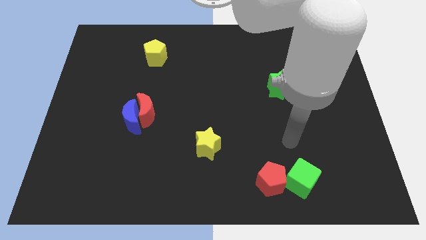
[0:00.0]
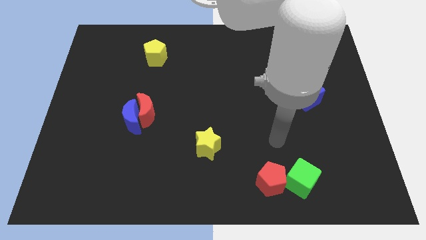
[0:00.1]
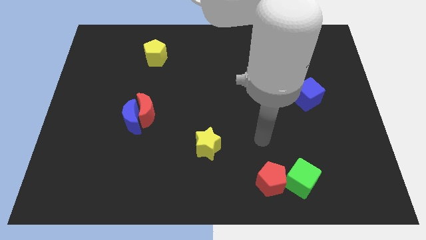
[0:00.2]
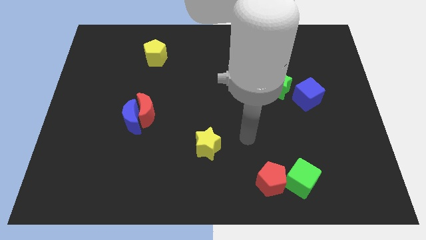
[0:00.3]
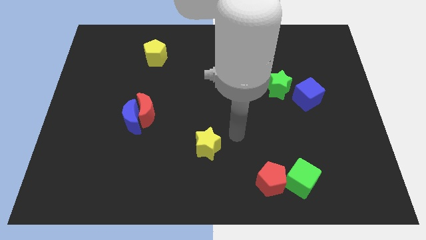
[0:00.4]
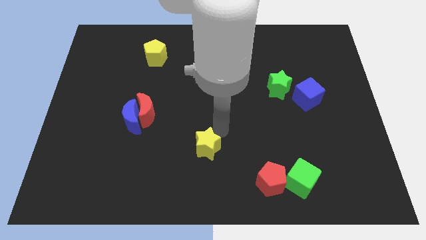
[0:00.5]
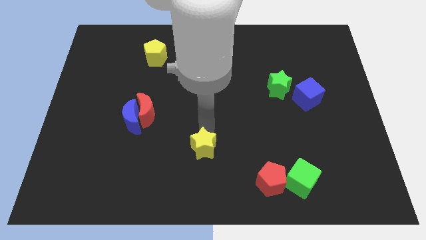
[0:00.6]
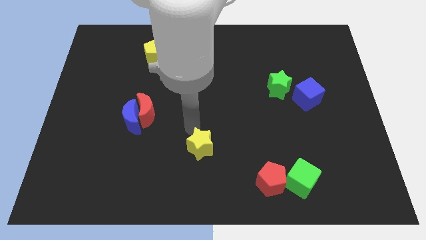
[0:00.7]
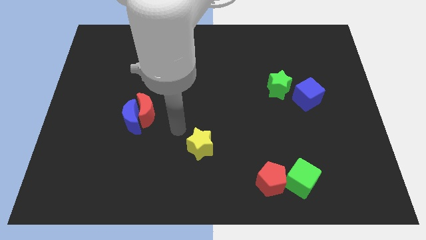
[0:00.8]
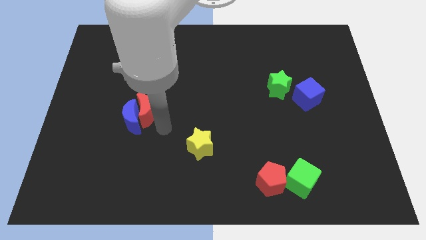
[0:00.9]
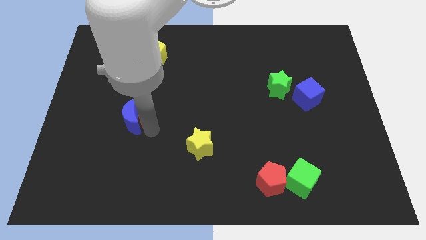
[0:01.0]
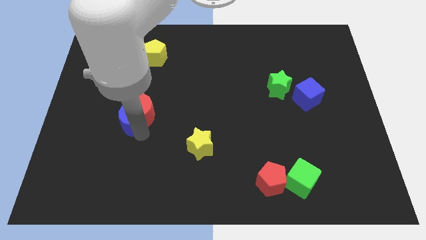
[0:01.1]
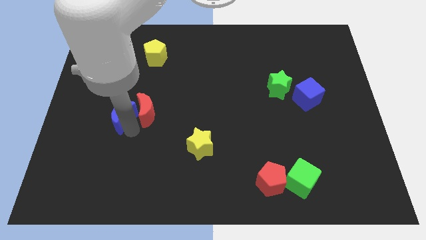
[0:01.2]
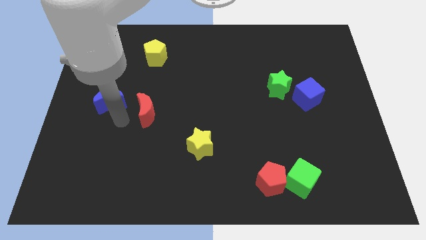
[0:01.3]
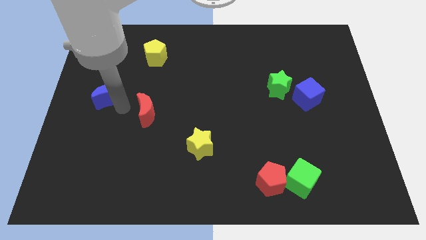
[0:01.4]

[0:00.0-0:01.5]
move the red moon away from the blue moon

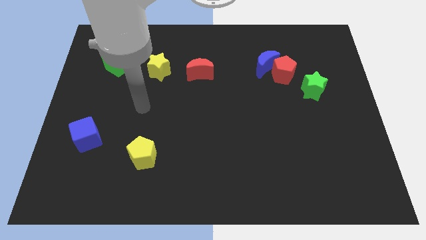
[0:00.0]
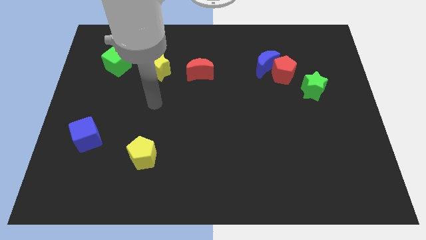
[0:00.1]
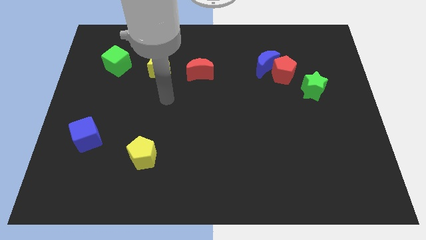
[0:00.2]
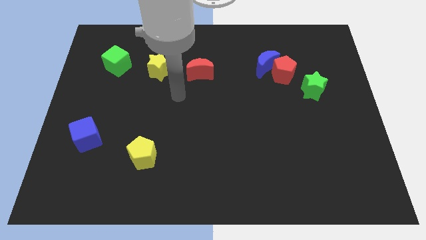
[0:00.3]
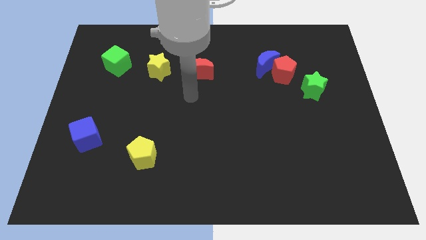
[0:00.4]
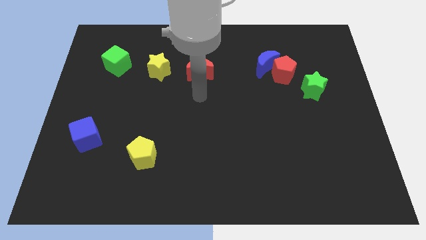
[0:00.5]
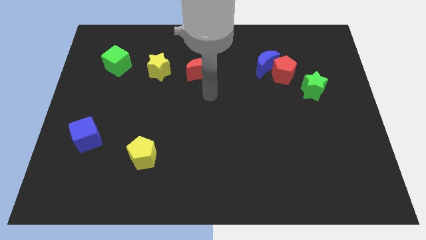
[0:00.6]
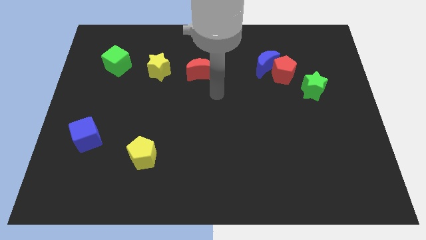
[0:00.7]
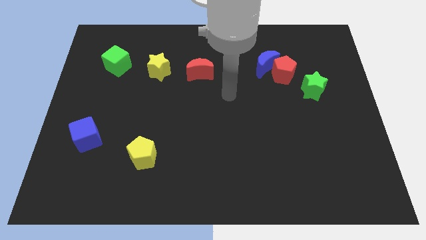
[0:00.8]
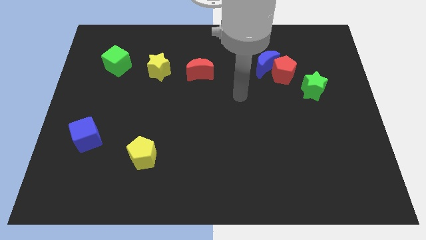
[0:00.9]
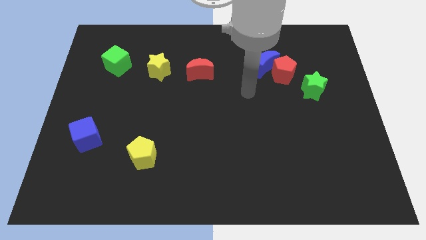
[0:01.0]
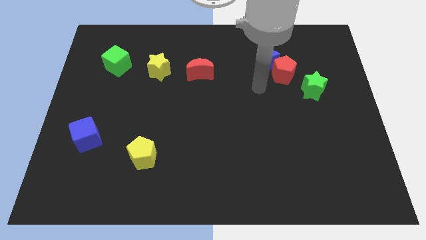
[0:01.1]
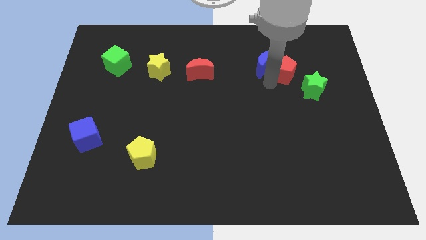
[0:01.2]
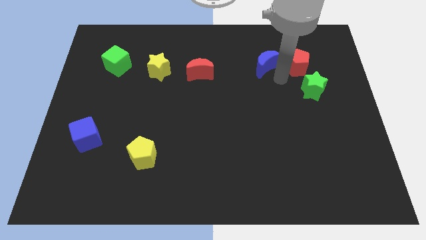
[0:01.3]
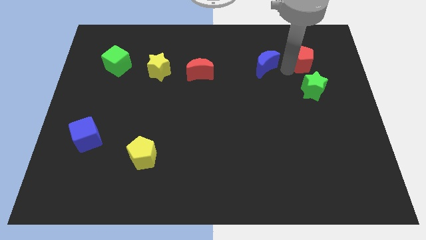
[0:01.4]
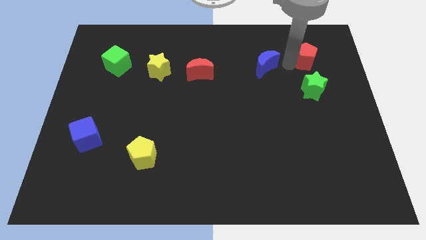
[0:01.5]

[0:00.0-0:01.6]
separate the blue moon from the red pentagon

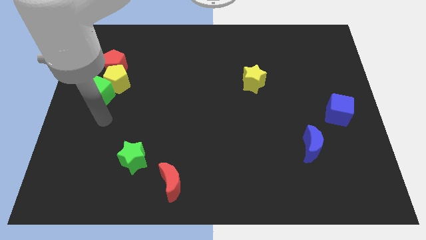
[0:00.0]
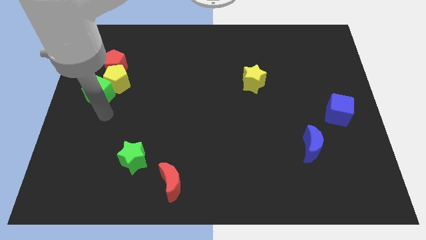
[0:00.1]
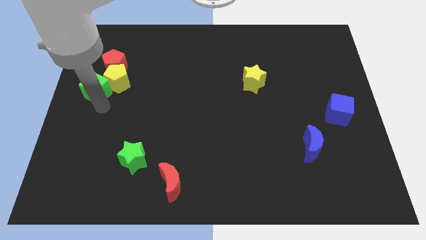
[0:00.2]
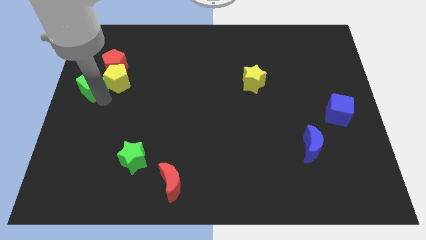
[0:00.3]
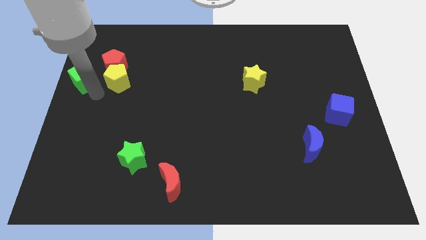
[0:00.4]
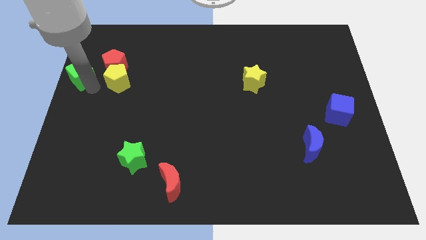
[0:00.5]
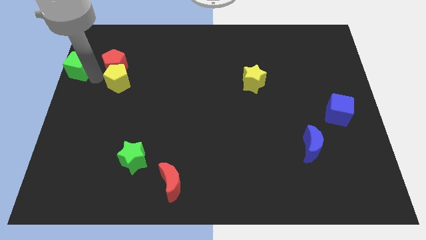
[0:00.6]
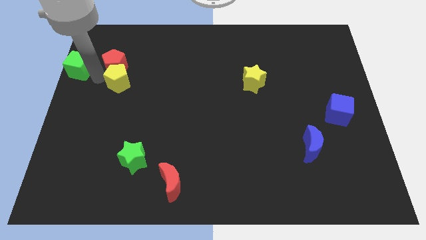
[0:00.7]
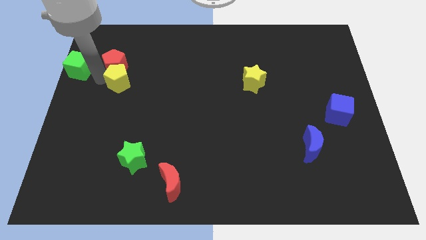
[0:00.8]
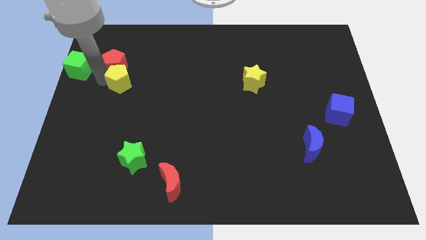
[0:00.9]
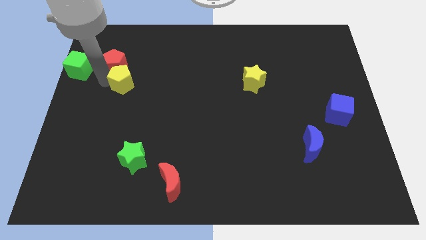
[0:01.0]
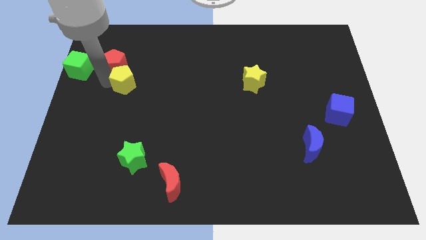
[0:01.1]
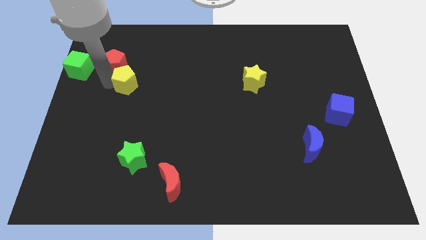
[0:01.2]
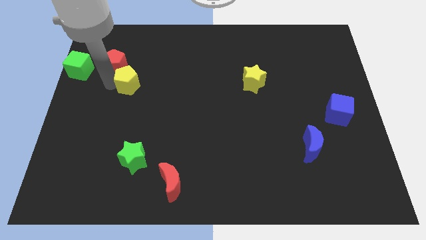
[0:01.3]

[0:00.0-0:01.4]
separate the yellow pentagon from the red pentagon and green cube

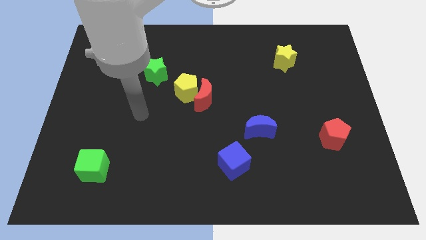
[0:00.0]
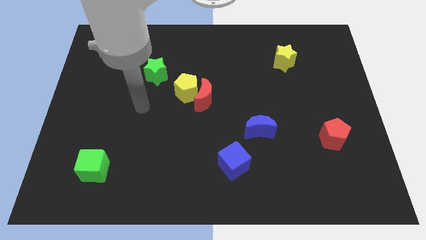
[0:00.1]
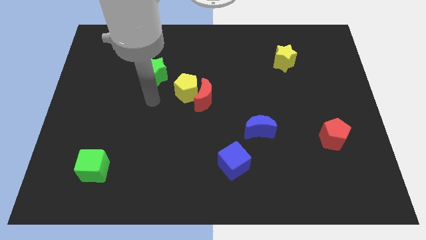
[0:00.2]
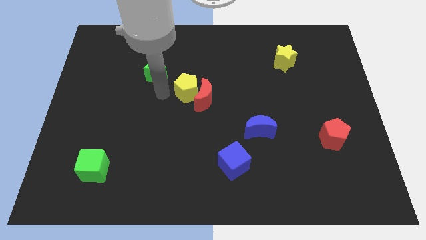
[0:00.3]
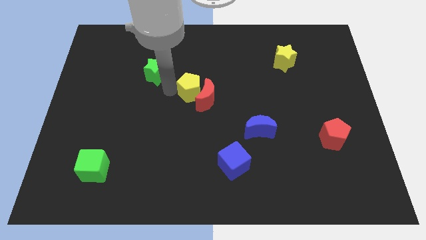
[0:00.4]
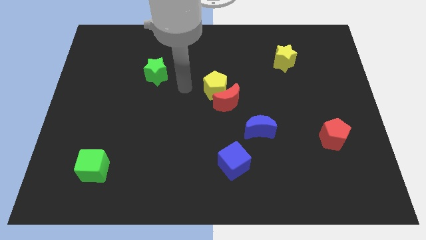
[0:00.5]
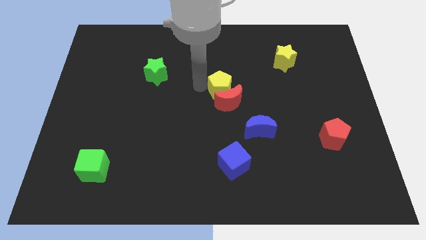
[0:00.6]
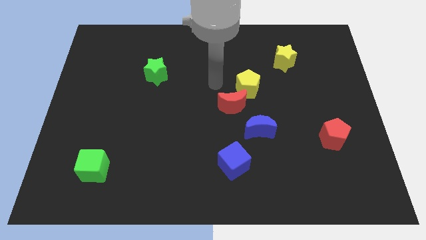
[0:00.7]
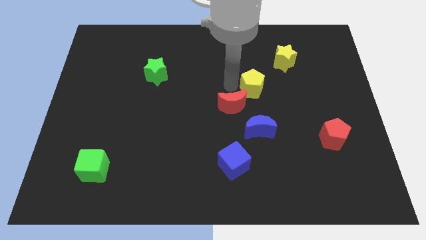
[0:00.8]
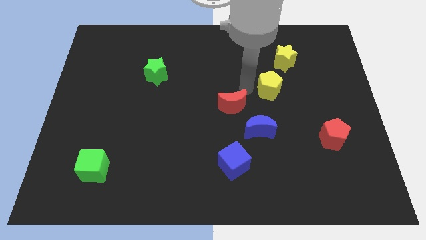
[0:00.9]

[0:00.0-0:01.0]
separate the red moon from the yellow pentagon

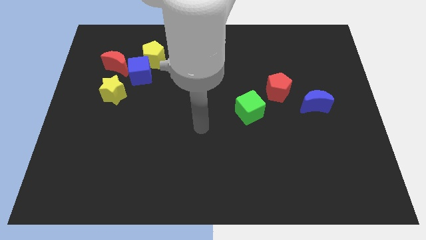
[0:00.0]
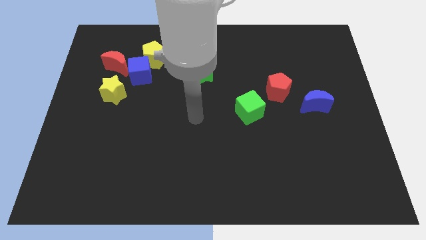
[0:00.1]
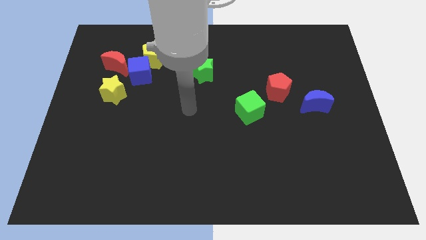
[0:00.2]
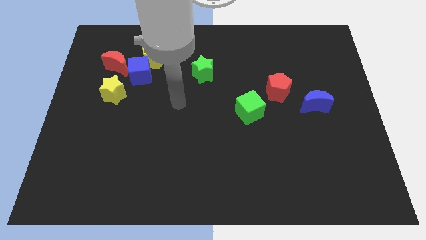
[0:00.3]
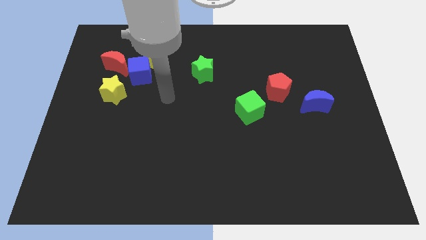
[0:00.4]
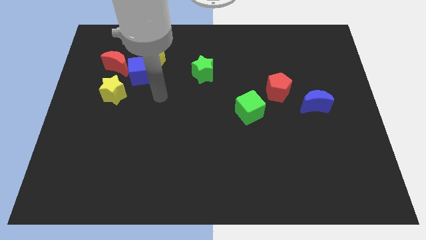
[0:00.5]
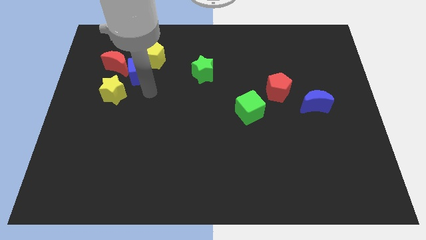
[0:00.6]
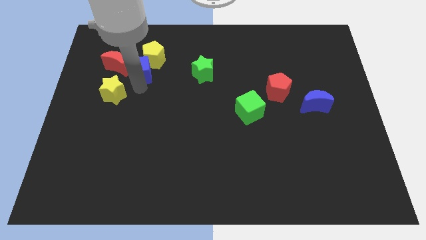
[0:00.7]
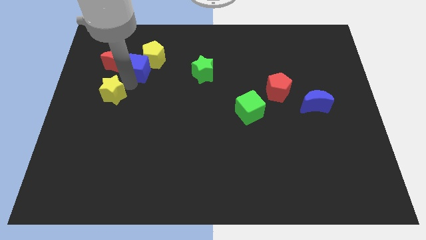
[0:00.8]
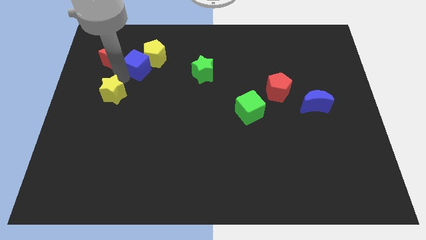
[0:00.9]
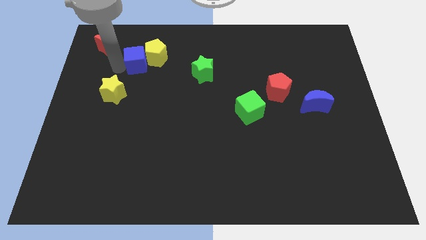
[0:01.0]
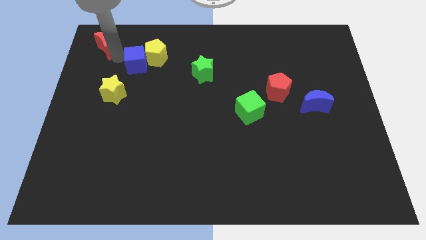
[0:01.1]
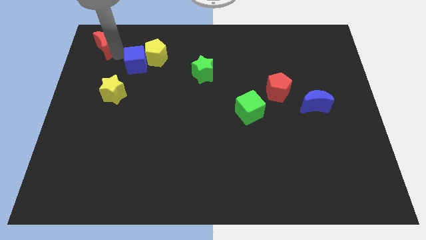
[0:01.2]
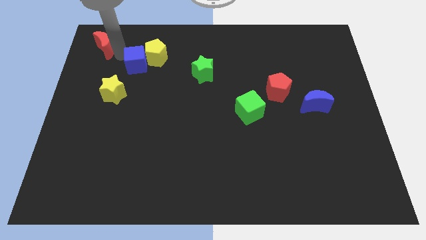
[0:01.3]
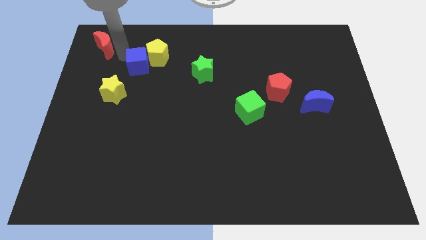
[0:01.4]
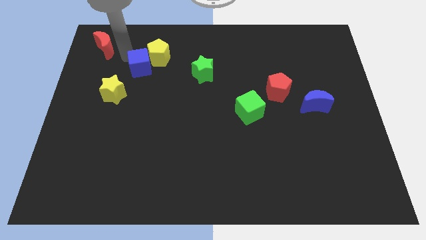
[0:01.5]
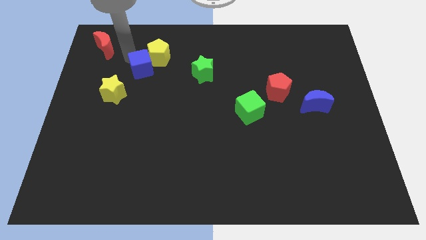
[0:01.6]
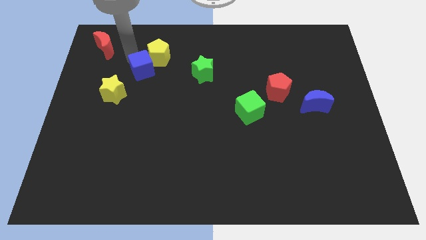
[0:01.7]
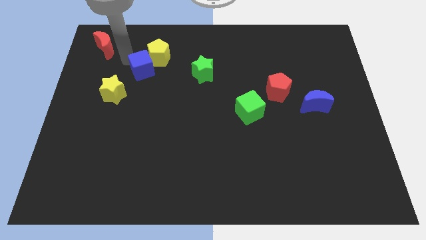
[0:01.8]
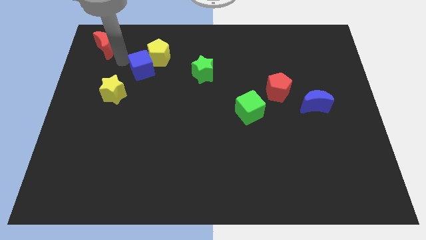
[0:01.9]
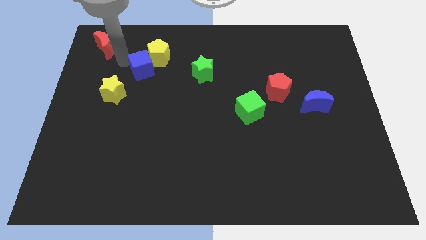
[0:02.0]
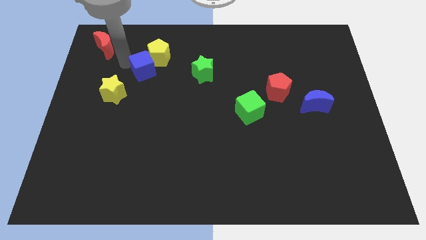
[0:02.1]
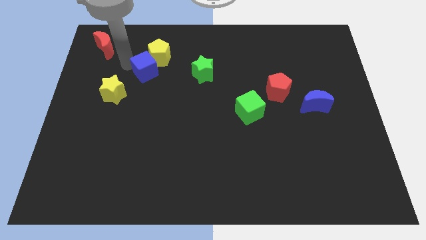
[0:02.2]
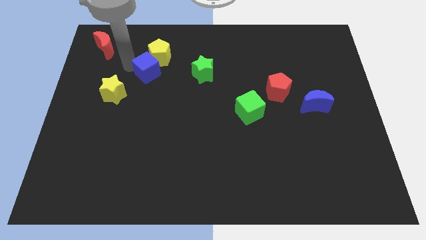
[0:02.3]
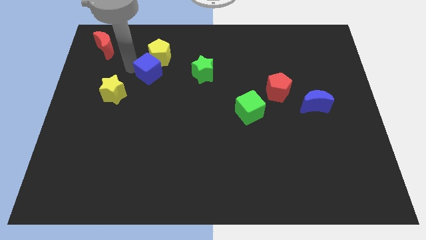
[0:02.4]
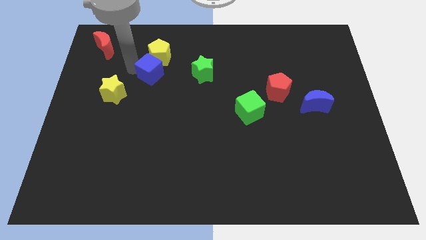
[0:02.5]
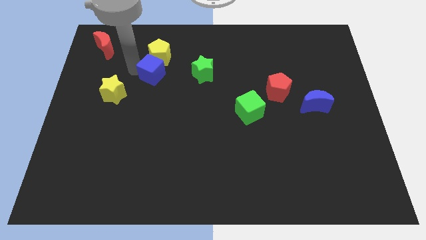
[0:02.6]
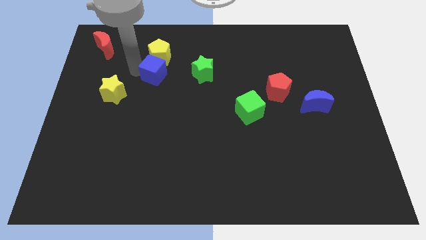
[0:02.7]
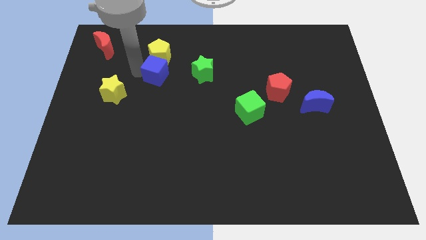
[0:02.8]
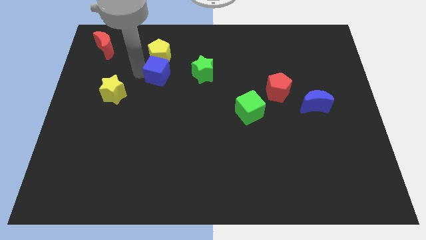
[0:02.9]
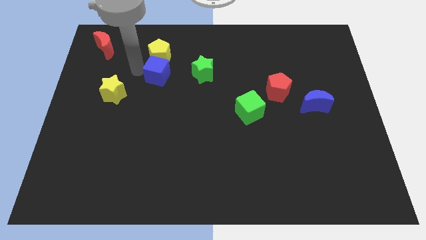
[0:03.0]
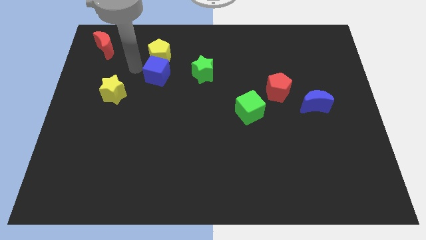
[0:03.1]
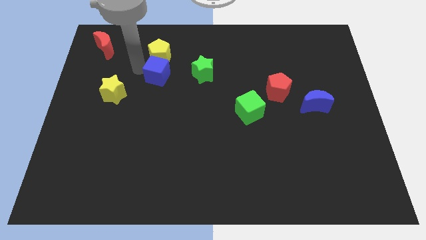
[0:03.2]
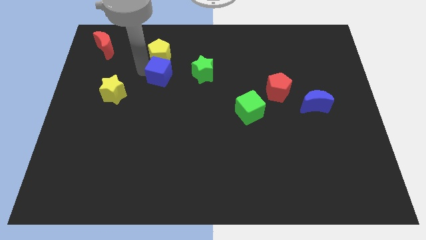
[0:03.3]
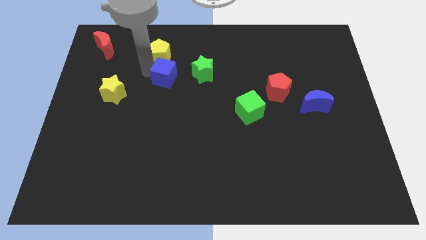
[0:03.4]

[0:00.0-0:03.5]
separate the blue cube from the yellow pentagon, red moon, and yellow star

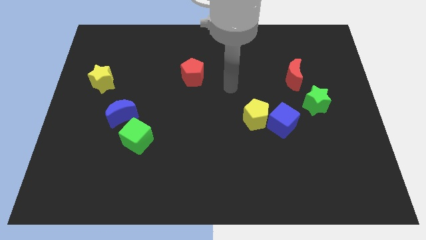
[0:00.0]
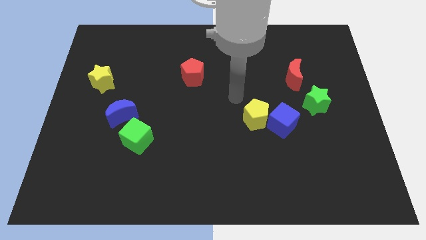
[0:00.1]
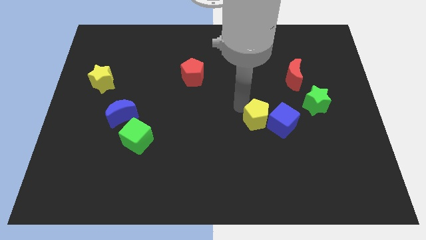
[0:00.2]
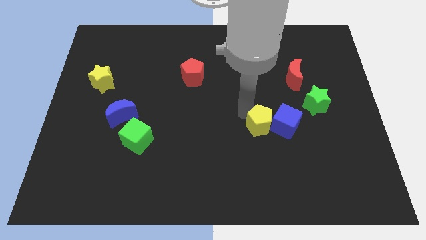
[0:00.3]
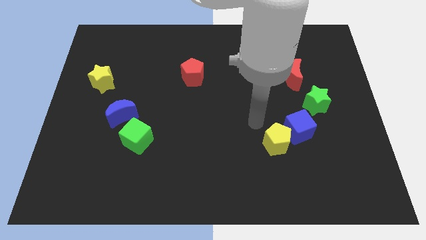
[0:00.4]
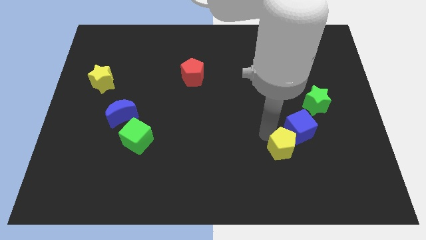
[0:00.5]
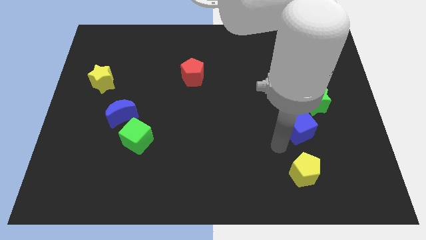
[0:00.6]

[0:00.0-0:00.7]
separate the blue cube from the yellow pentagon
